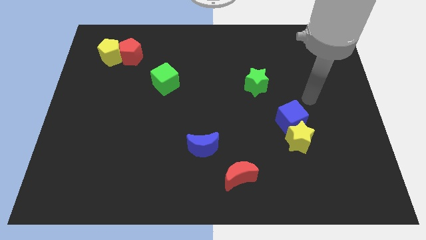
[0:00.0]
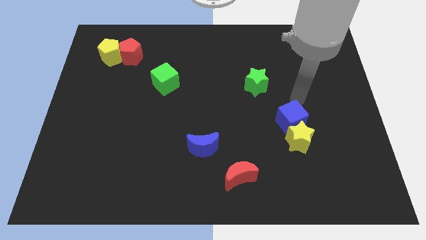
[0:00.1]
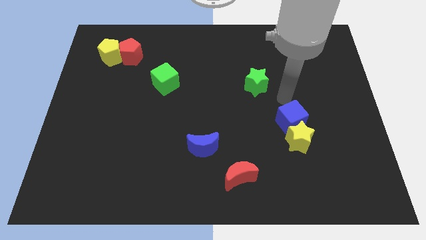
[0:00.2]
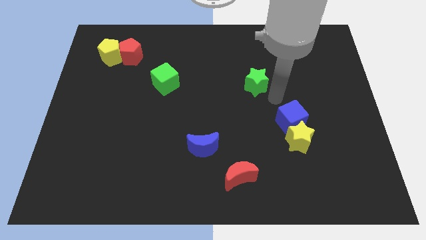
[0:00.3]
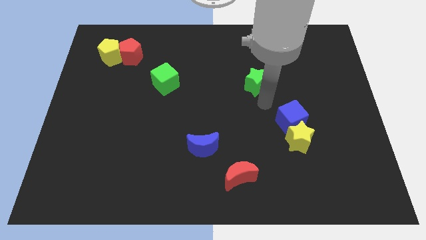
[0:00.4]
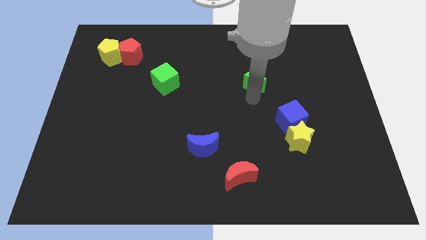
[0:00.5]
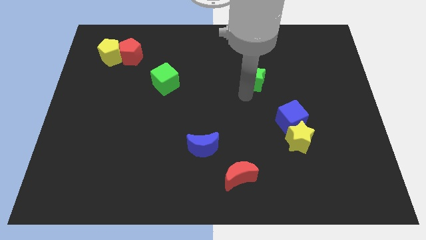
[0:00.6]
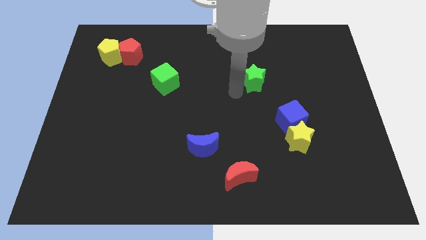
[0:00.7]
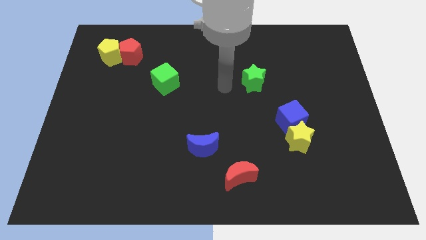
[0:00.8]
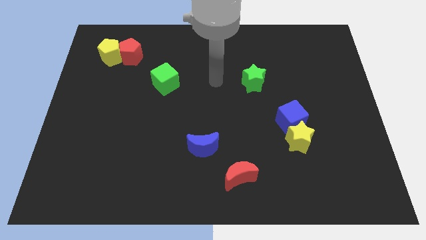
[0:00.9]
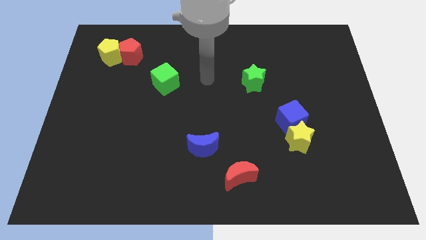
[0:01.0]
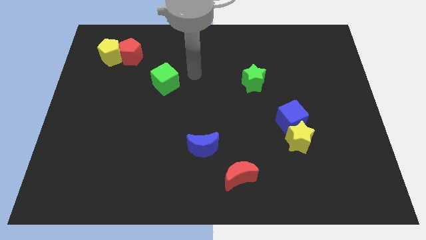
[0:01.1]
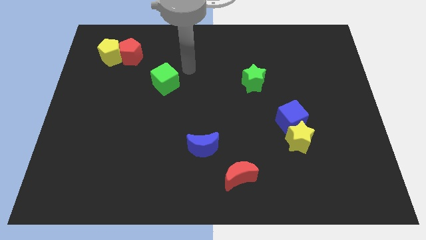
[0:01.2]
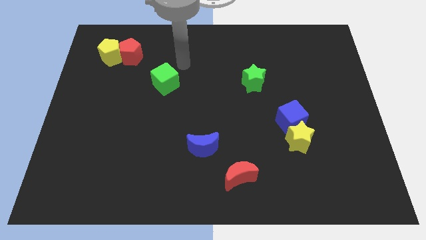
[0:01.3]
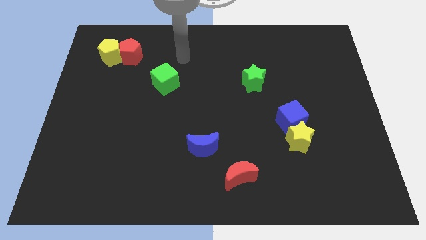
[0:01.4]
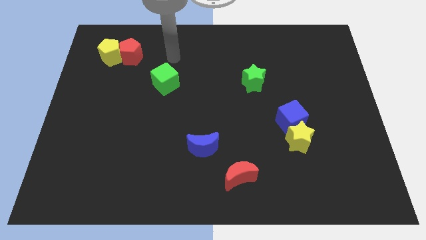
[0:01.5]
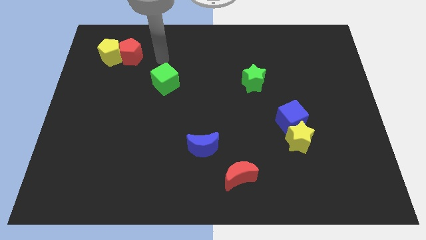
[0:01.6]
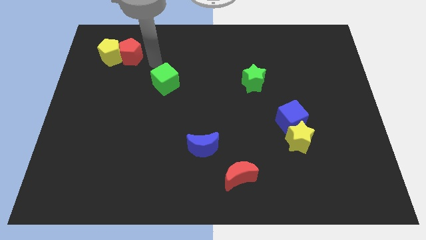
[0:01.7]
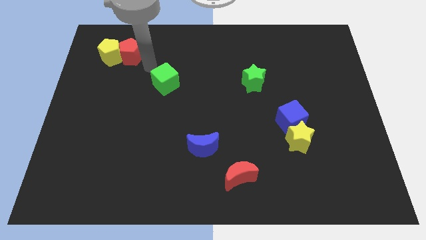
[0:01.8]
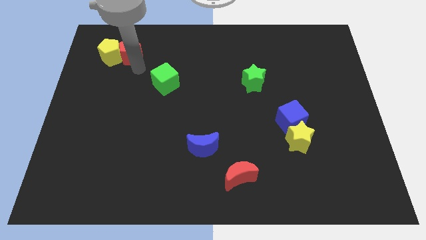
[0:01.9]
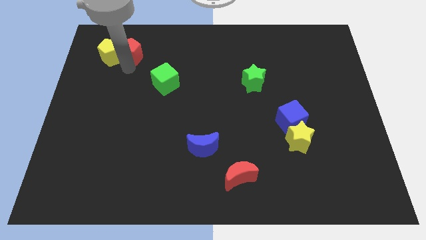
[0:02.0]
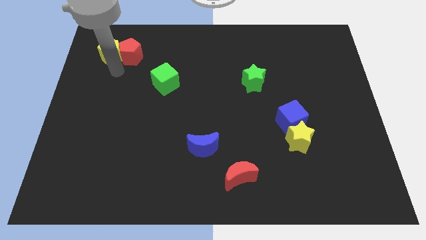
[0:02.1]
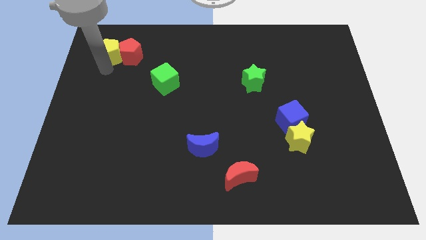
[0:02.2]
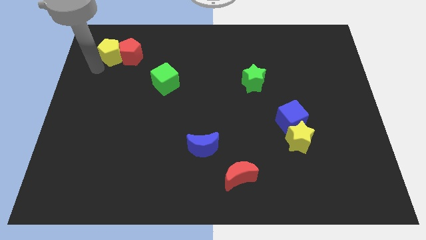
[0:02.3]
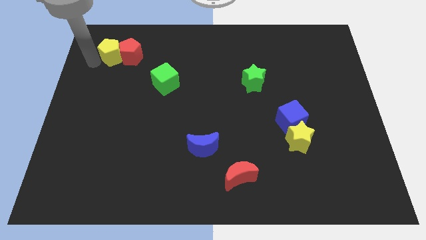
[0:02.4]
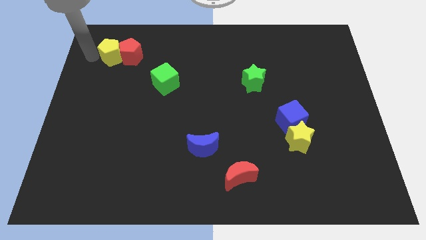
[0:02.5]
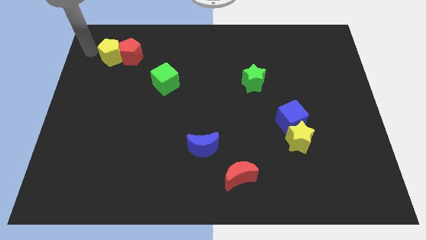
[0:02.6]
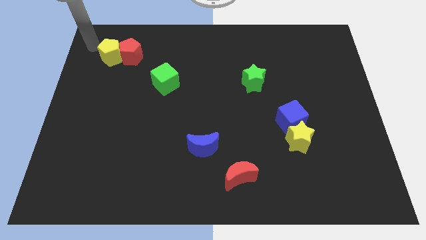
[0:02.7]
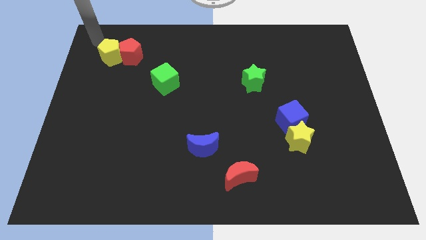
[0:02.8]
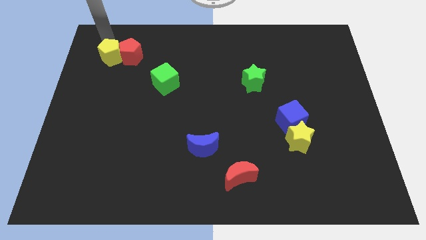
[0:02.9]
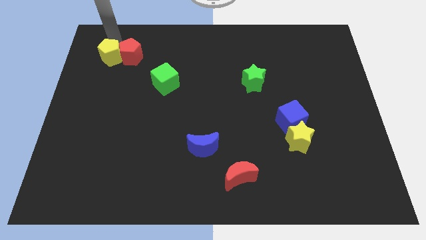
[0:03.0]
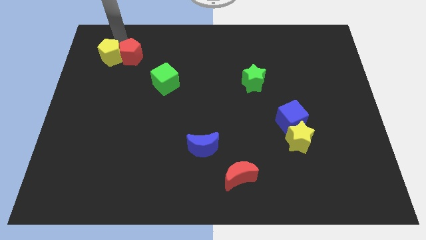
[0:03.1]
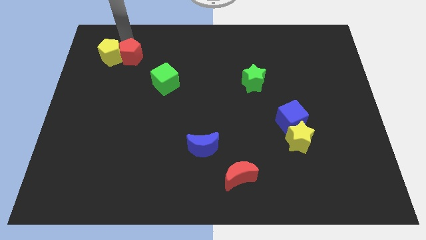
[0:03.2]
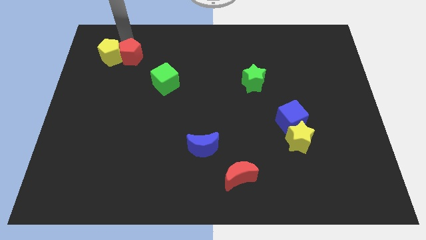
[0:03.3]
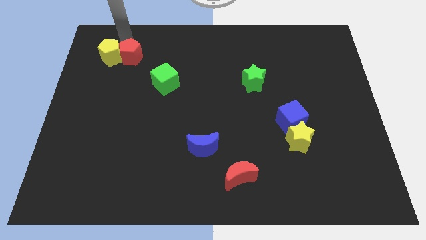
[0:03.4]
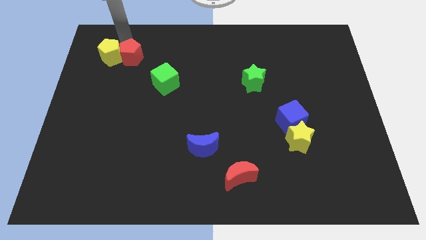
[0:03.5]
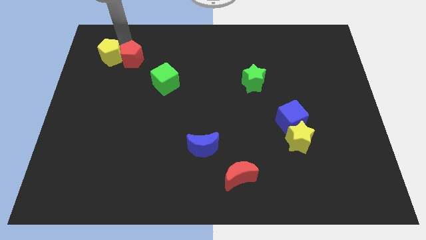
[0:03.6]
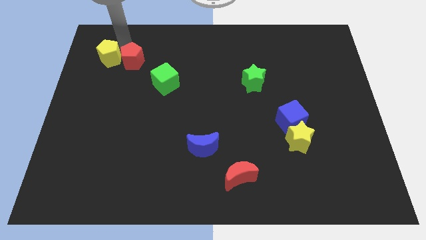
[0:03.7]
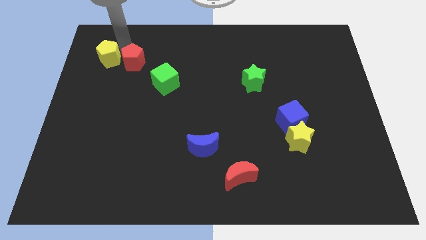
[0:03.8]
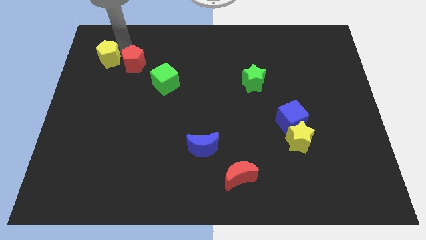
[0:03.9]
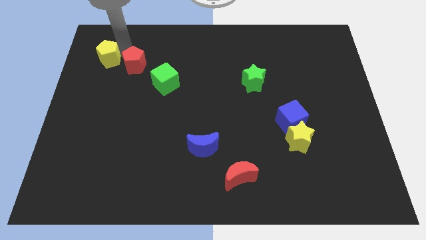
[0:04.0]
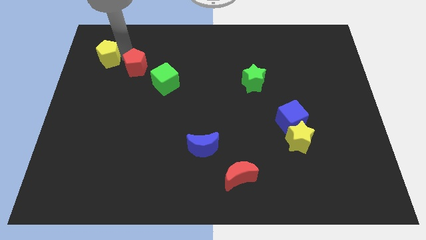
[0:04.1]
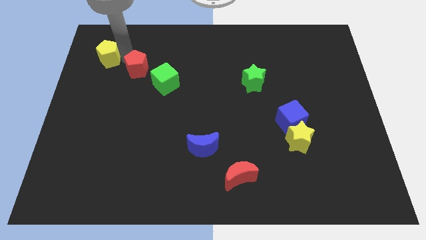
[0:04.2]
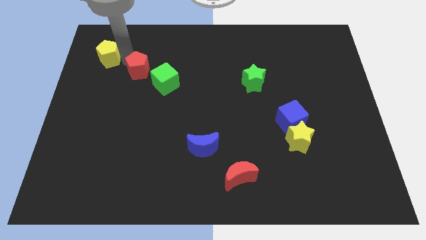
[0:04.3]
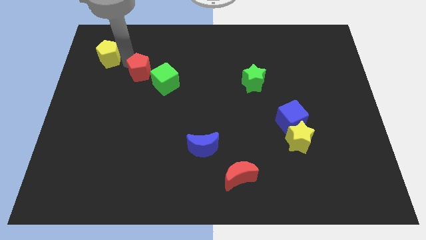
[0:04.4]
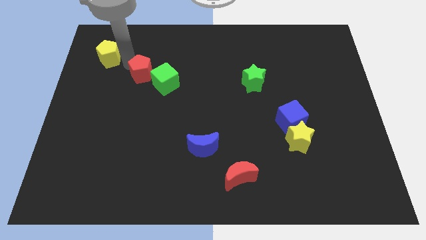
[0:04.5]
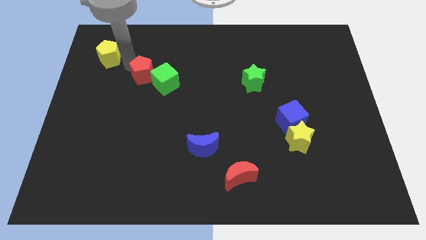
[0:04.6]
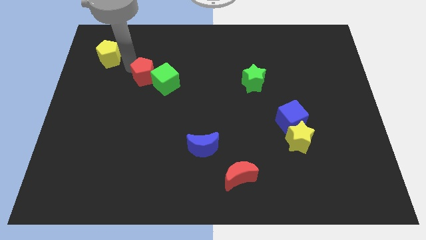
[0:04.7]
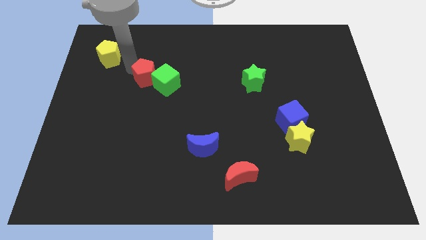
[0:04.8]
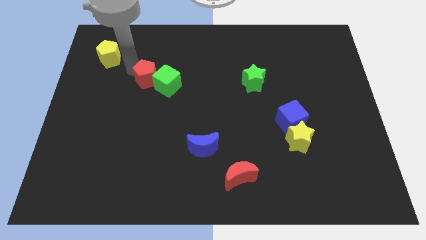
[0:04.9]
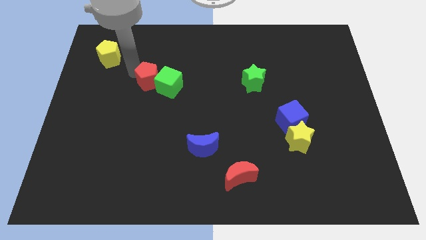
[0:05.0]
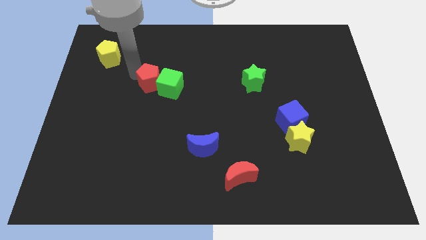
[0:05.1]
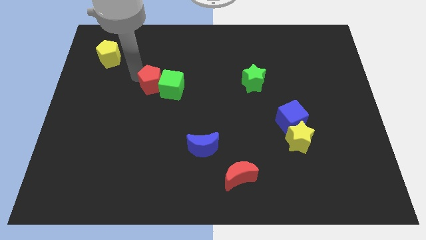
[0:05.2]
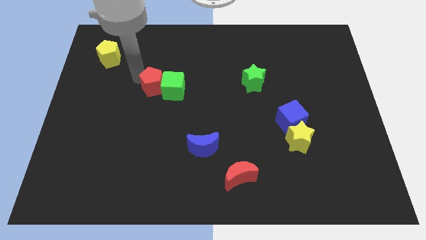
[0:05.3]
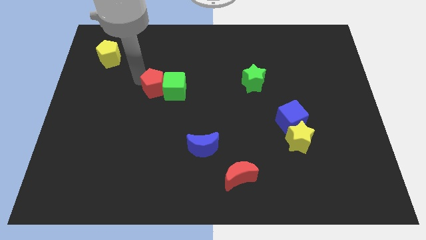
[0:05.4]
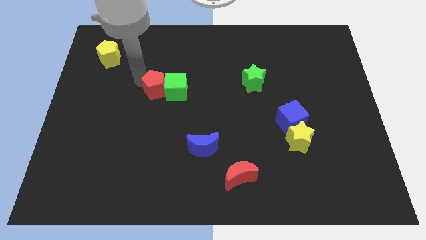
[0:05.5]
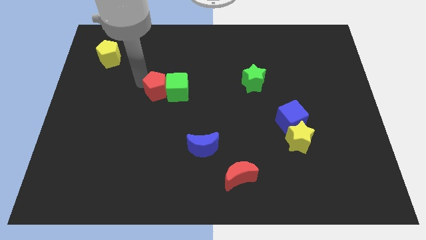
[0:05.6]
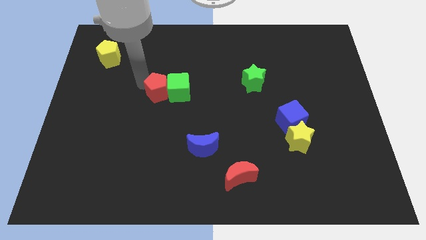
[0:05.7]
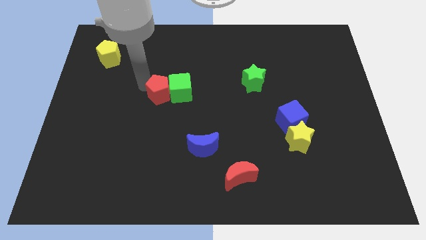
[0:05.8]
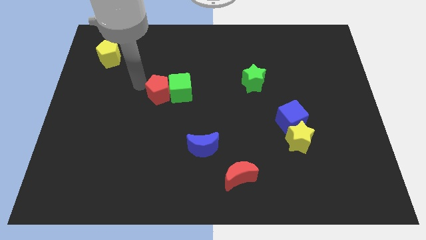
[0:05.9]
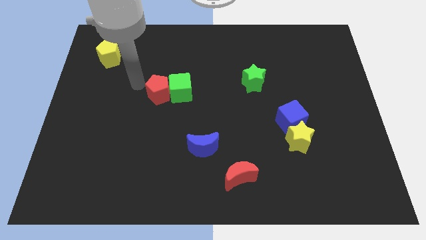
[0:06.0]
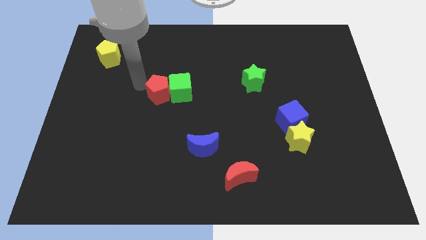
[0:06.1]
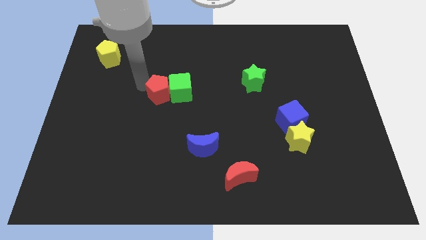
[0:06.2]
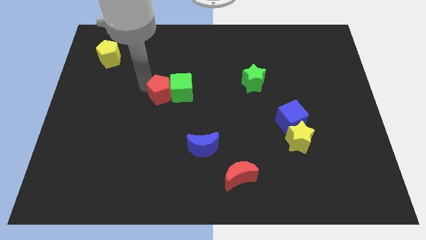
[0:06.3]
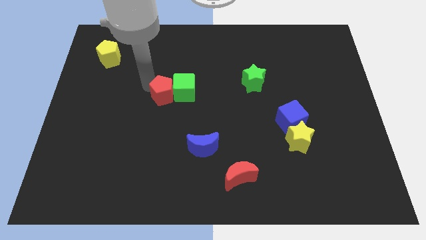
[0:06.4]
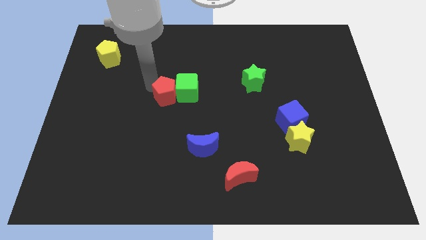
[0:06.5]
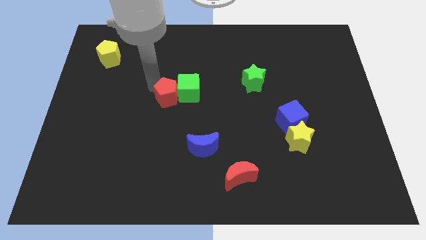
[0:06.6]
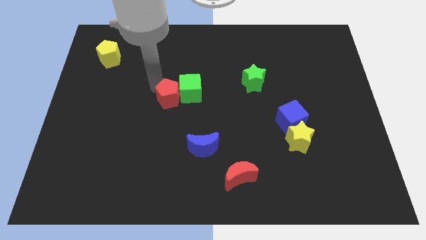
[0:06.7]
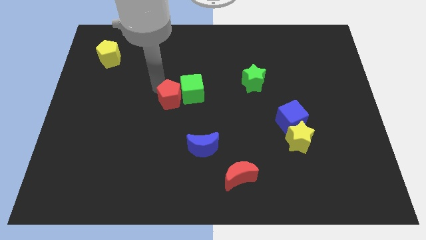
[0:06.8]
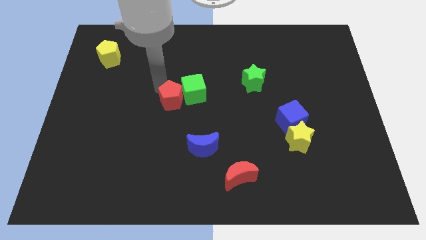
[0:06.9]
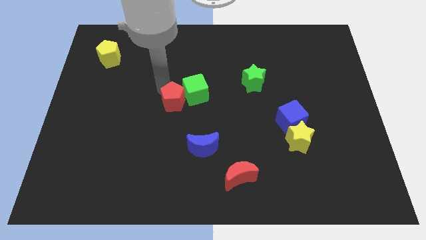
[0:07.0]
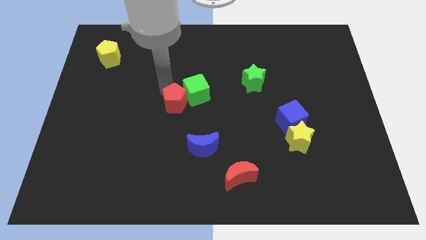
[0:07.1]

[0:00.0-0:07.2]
move the red pentagon downwards and then to the right

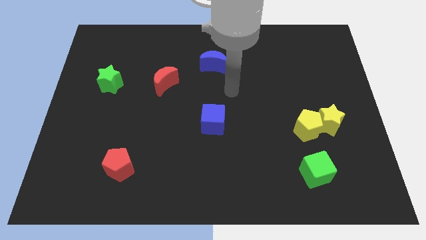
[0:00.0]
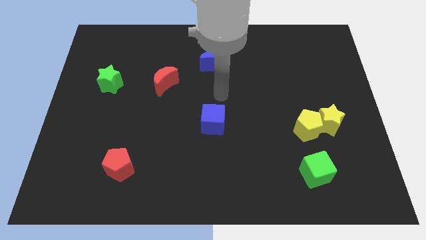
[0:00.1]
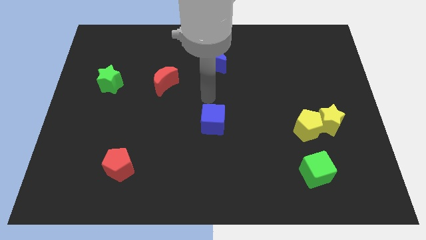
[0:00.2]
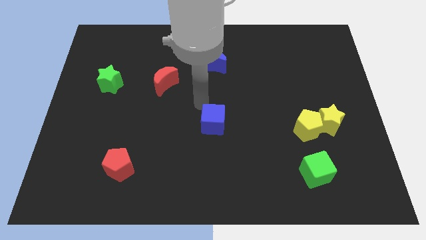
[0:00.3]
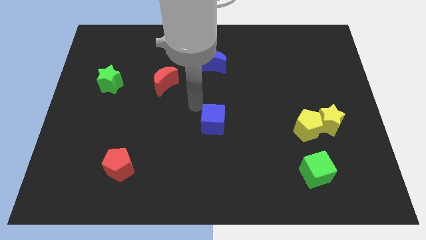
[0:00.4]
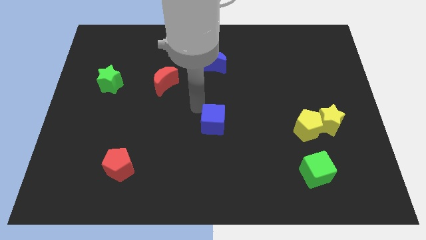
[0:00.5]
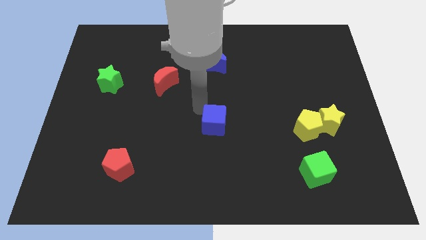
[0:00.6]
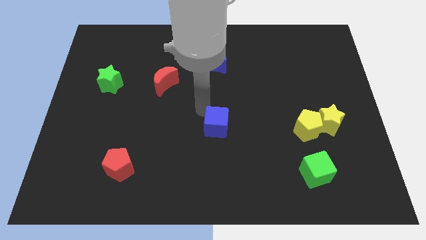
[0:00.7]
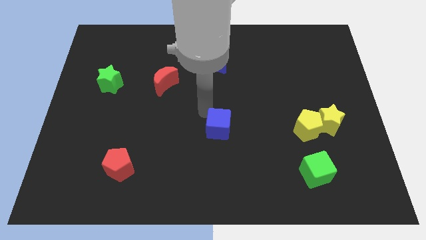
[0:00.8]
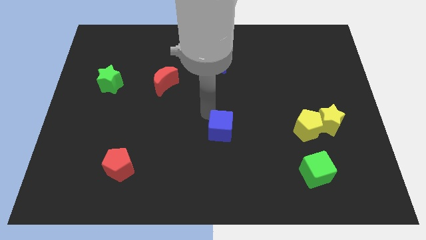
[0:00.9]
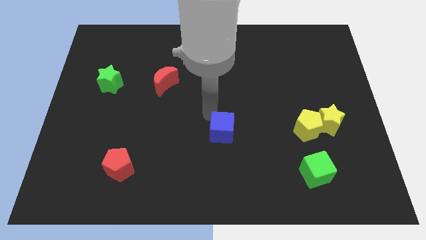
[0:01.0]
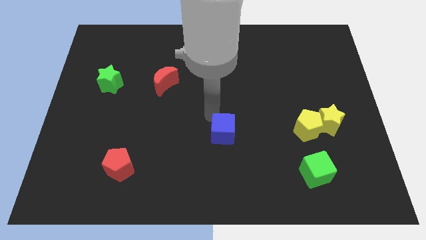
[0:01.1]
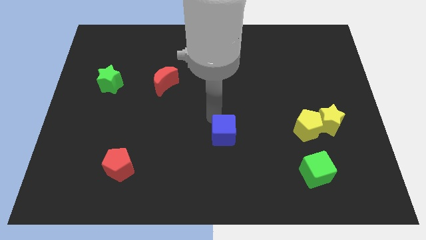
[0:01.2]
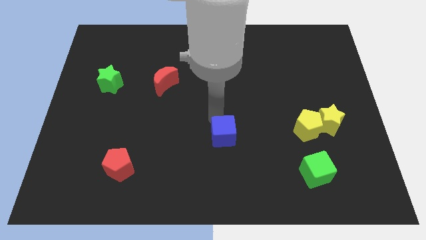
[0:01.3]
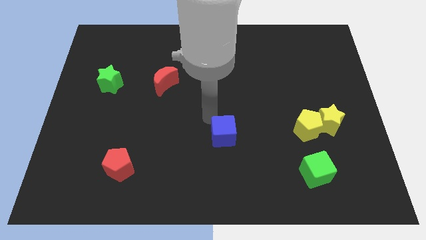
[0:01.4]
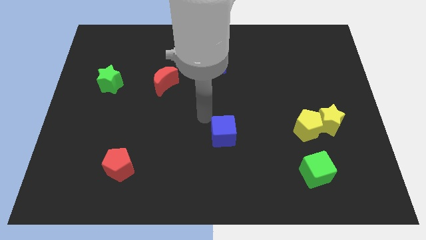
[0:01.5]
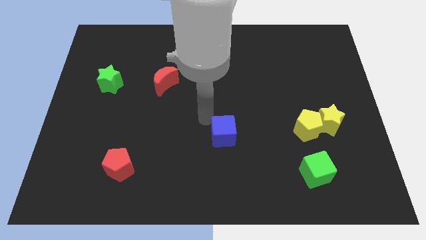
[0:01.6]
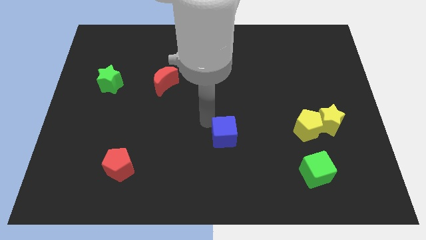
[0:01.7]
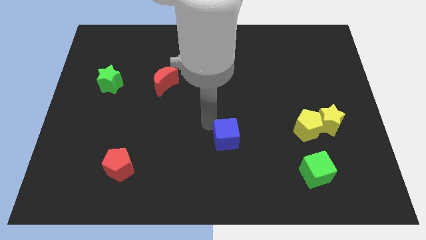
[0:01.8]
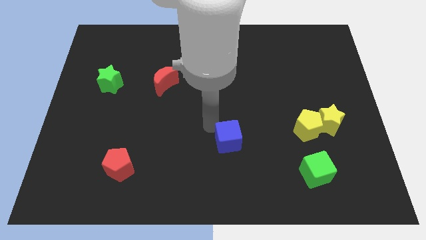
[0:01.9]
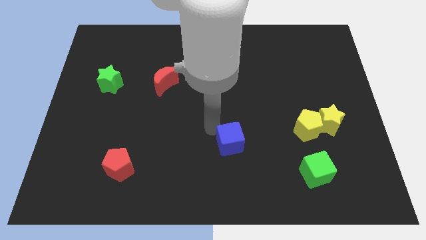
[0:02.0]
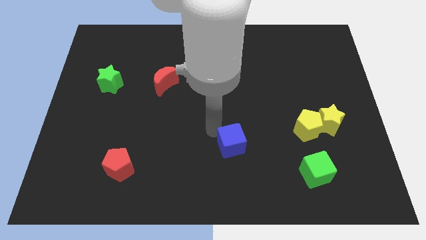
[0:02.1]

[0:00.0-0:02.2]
move the blue cube downwards and to the right a little
